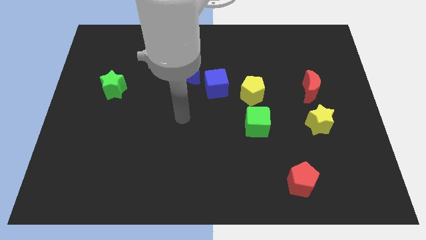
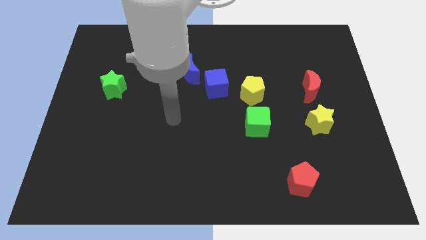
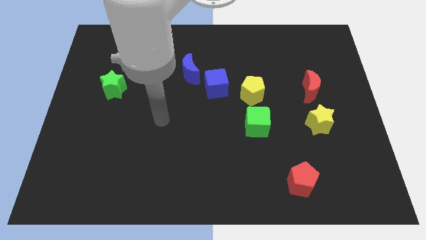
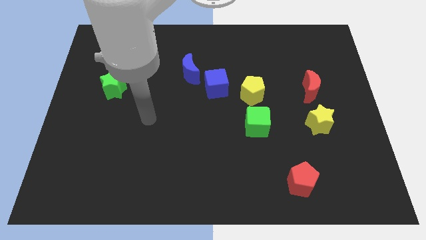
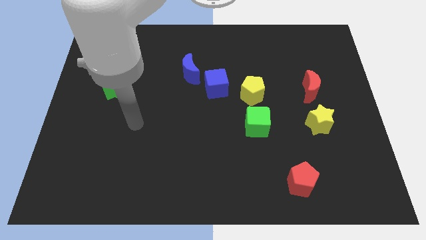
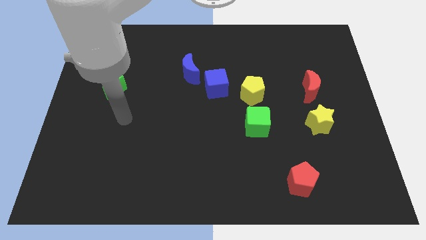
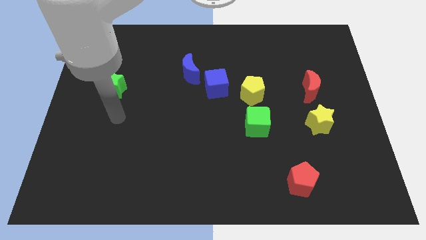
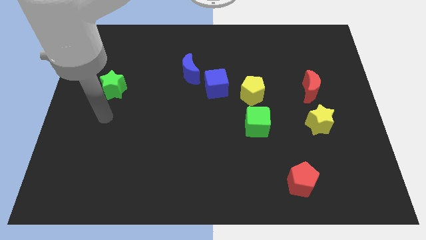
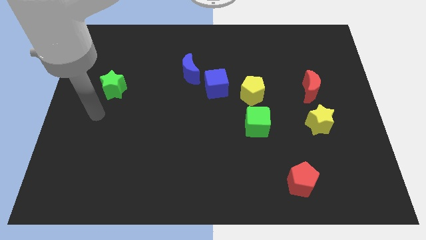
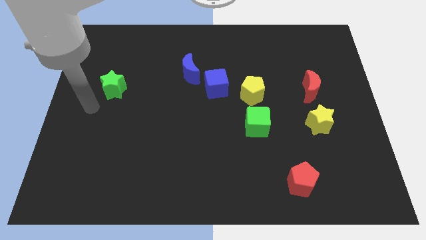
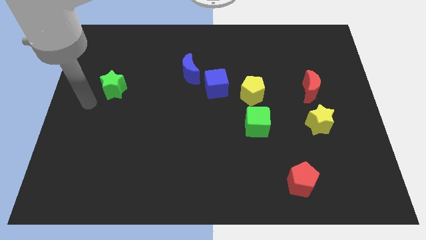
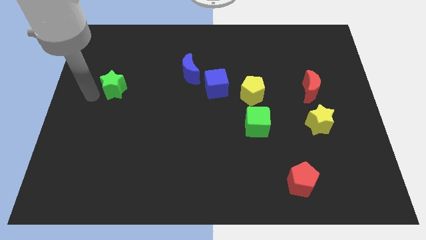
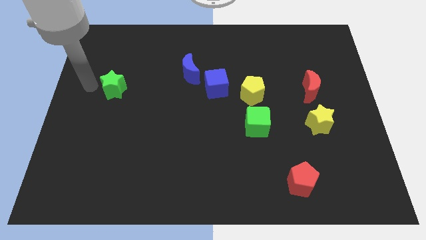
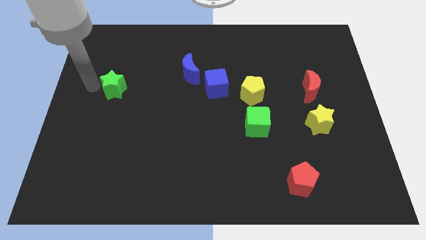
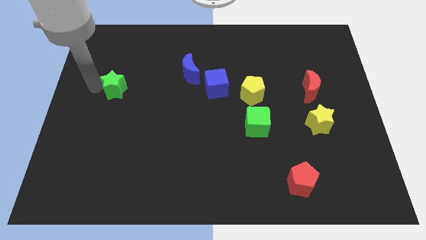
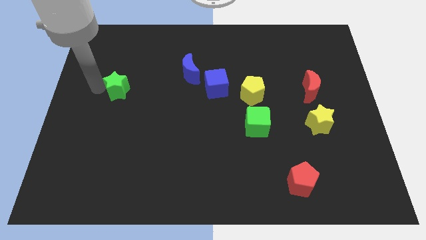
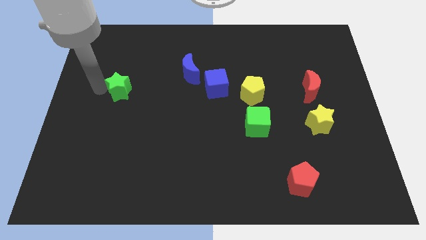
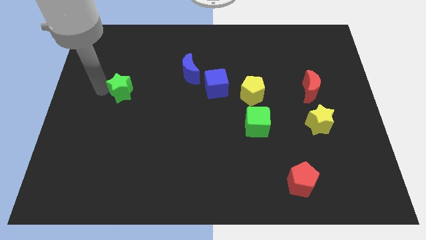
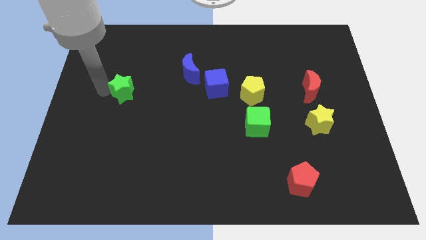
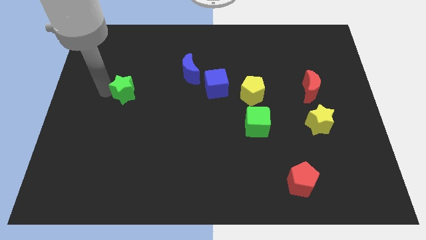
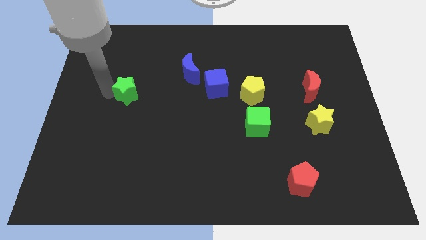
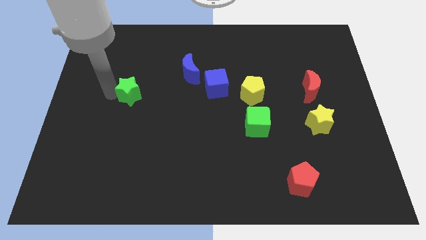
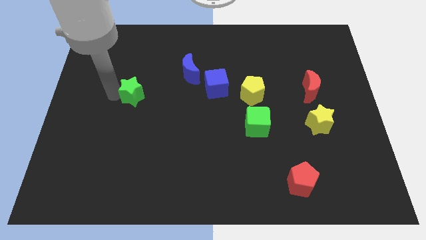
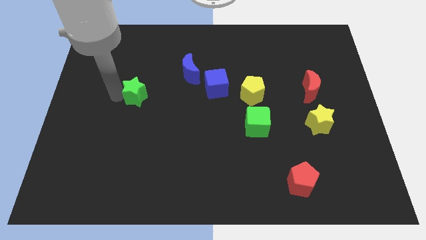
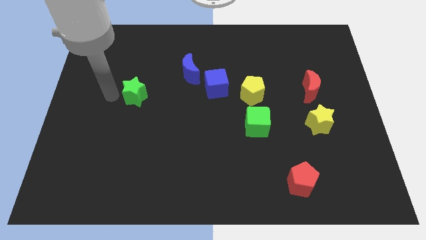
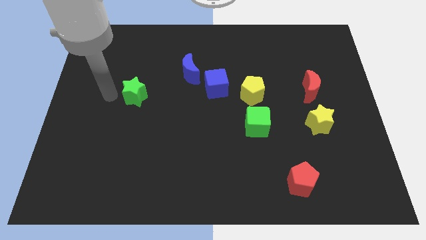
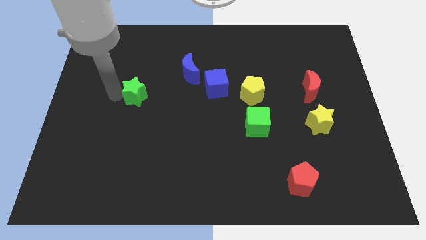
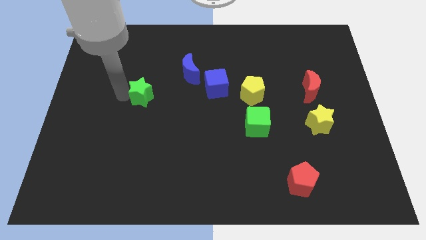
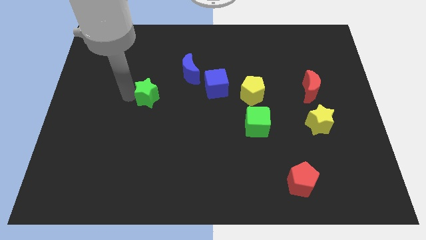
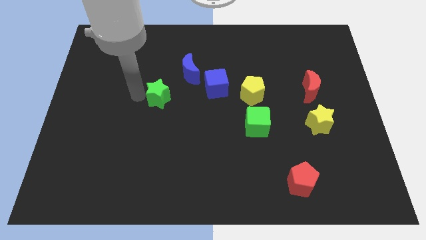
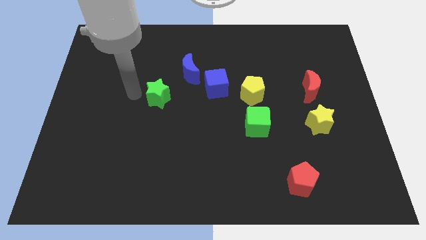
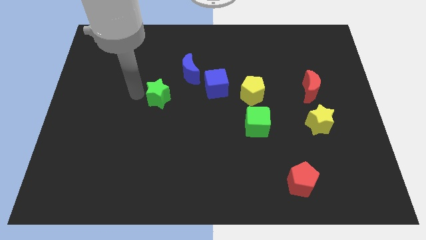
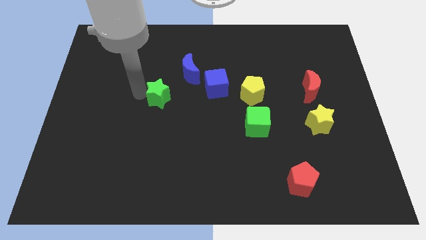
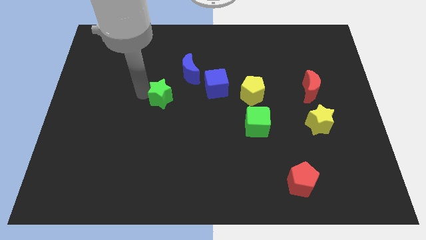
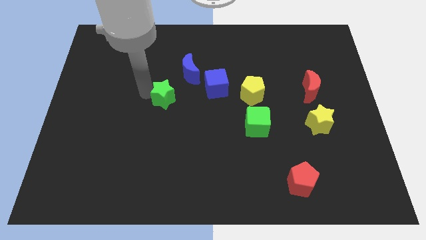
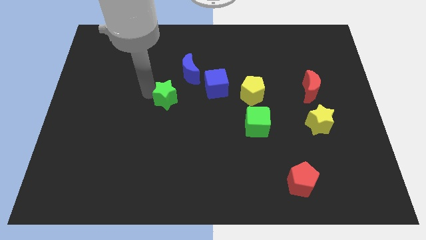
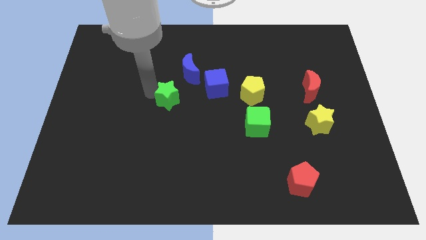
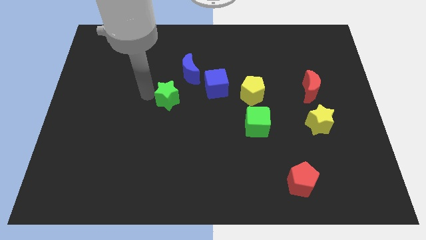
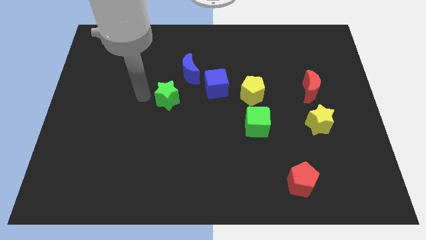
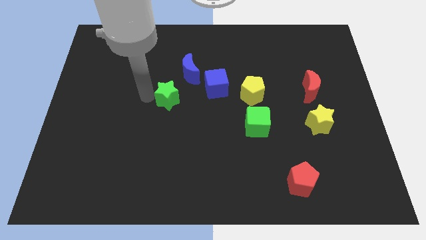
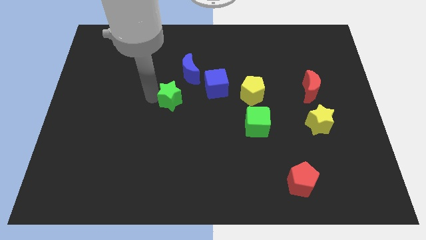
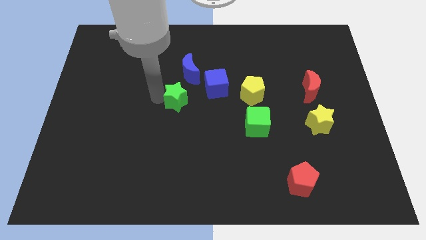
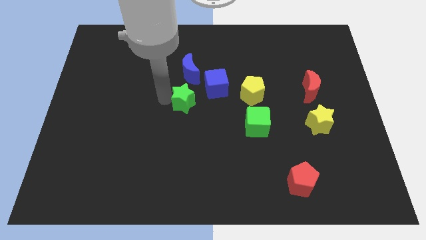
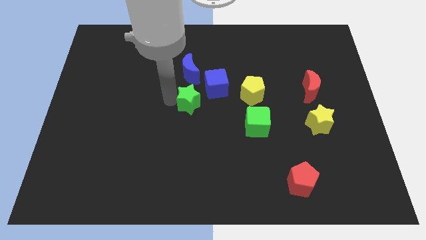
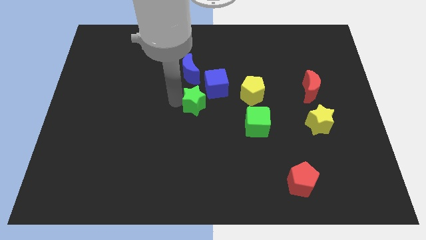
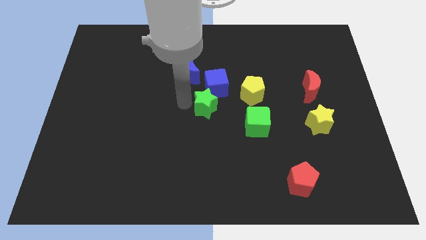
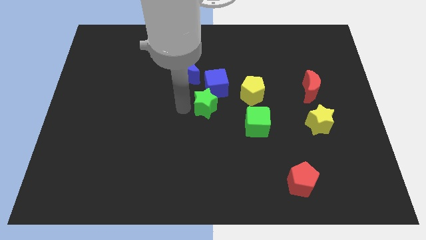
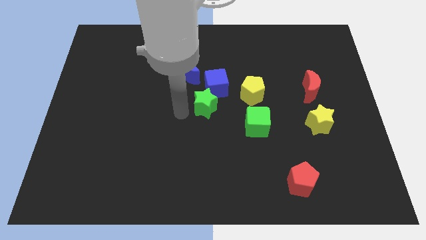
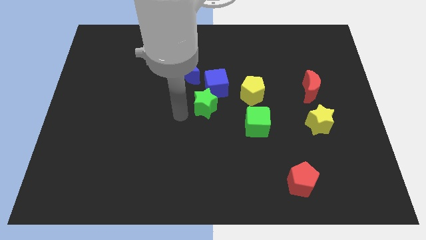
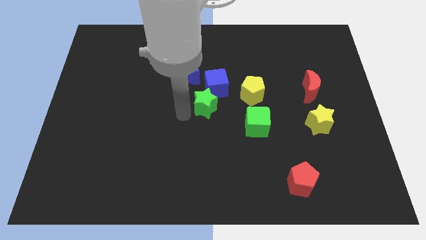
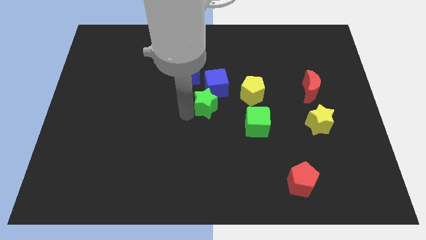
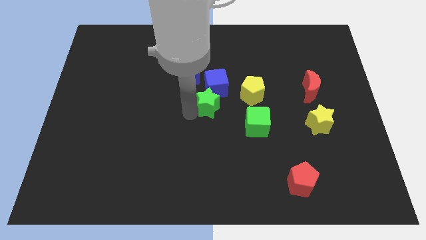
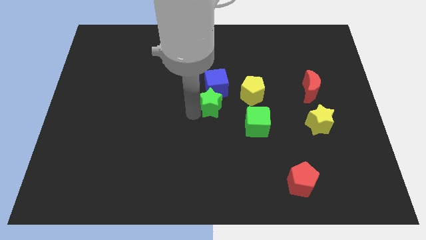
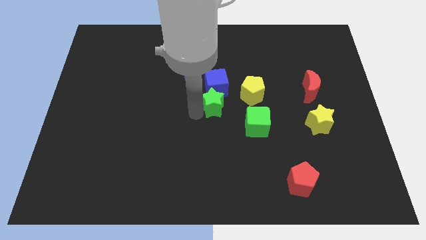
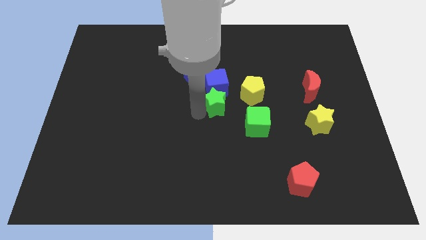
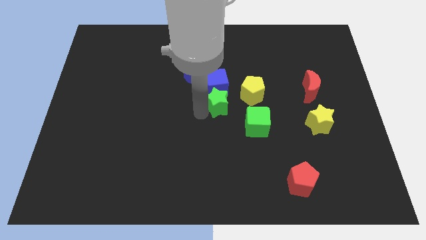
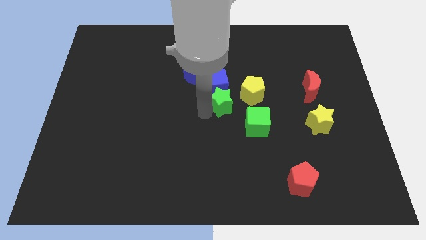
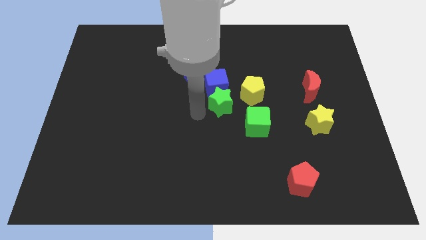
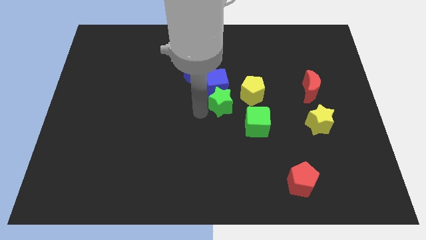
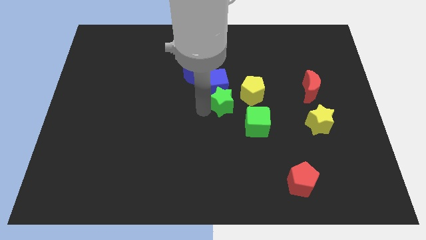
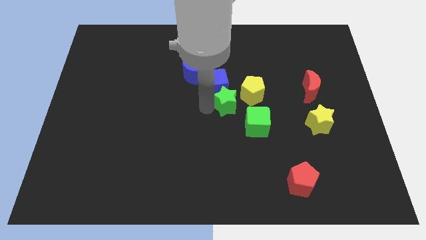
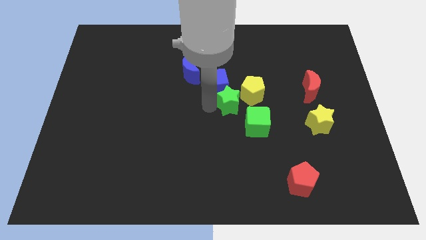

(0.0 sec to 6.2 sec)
put the green star next to the yellow pentagon
